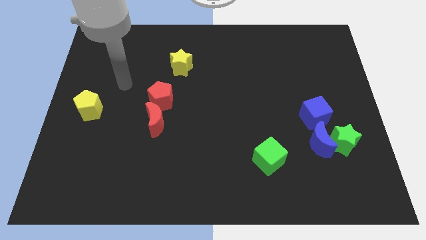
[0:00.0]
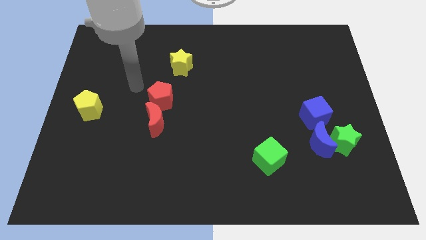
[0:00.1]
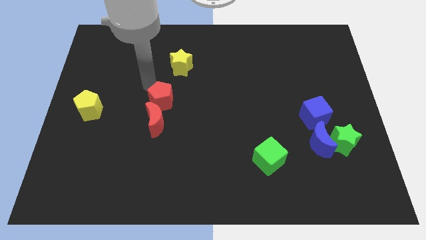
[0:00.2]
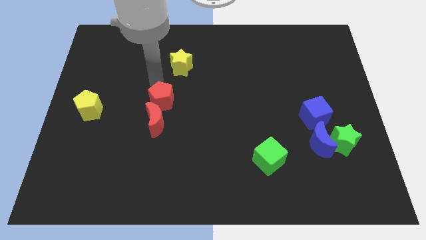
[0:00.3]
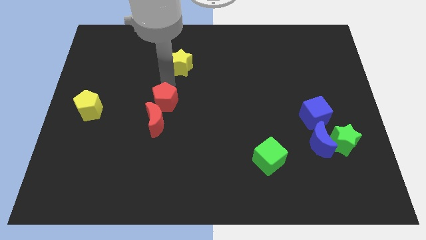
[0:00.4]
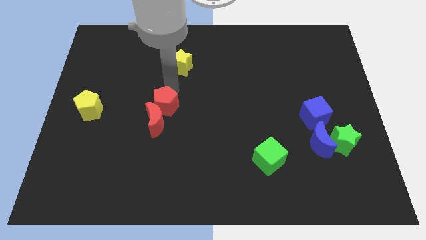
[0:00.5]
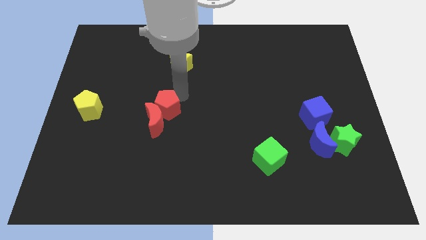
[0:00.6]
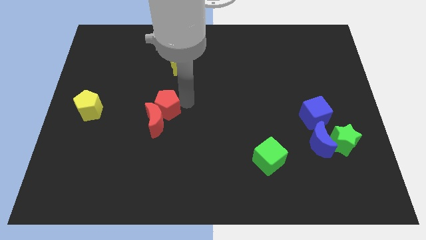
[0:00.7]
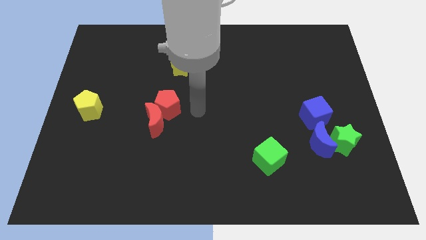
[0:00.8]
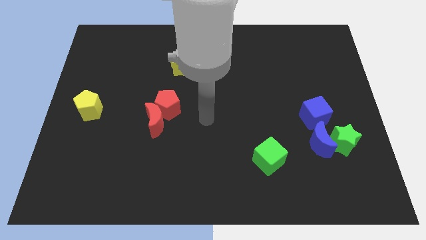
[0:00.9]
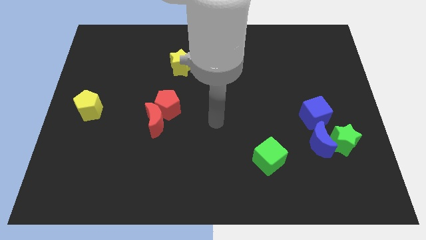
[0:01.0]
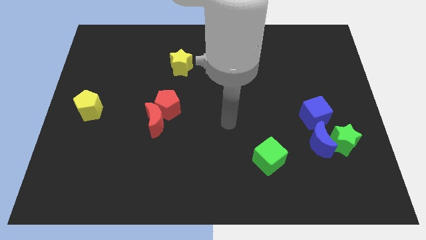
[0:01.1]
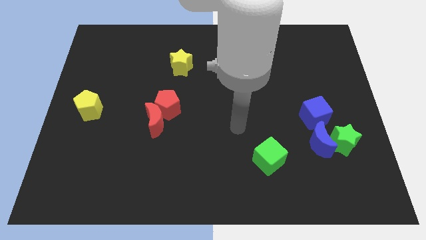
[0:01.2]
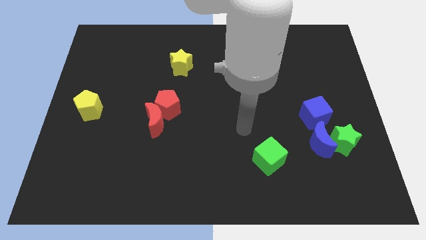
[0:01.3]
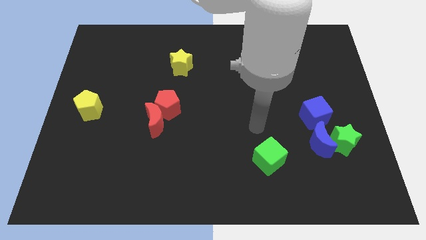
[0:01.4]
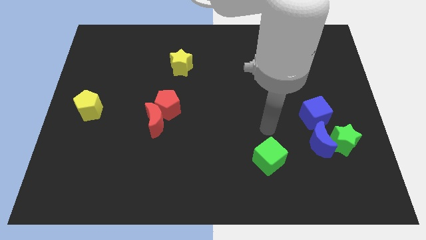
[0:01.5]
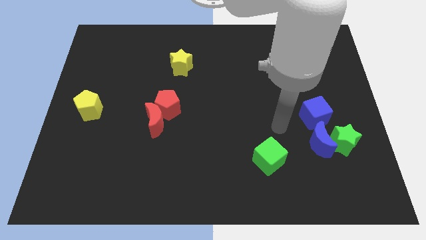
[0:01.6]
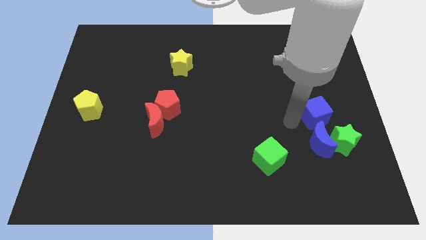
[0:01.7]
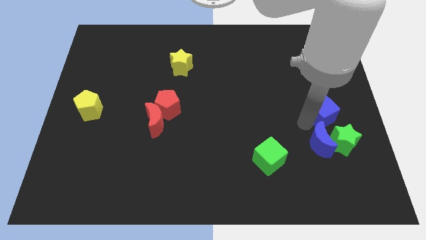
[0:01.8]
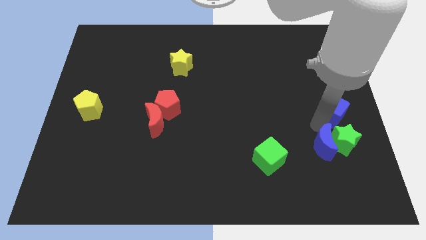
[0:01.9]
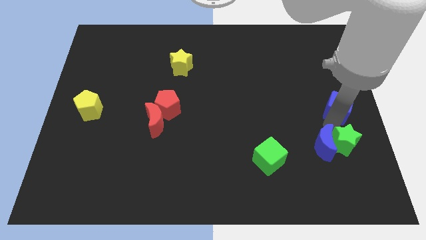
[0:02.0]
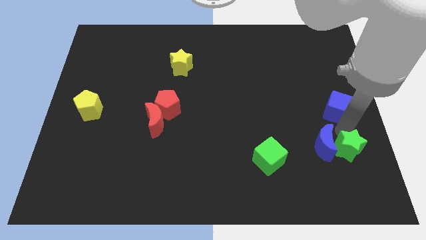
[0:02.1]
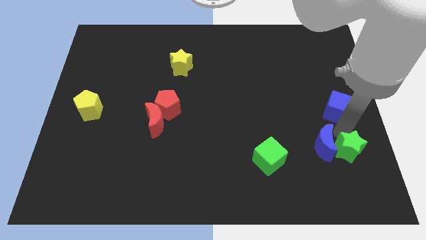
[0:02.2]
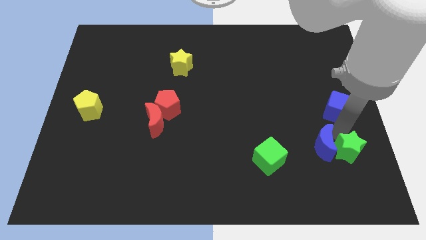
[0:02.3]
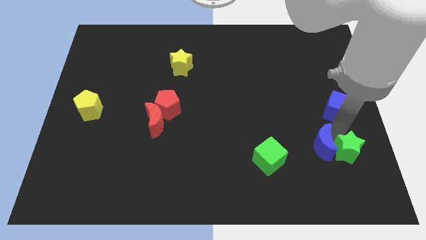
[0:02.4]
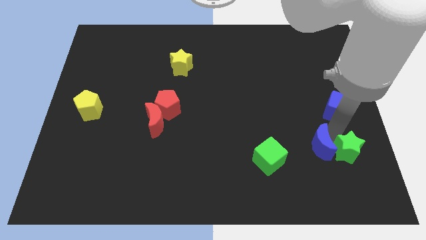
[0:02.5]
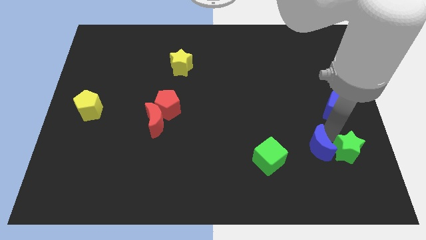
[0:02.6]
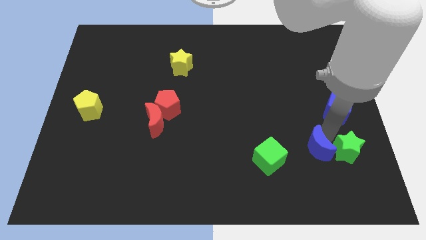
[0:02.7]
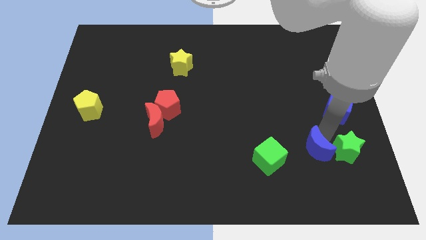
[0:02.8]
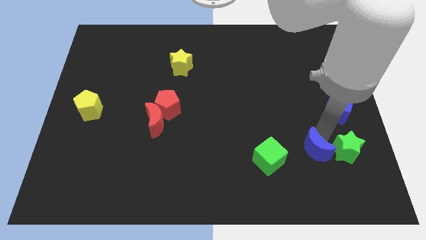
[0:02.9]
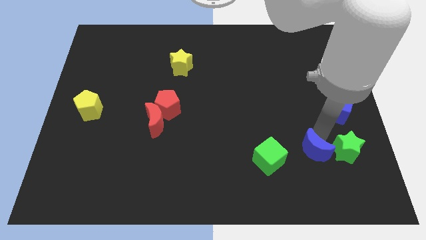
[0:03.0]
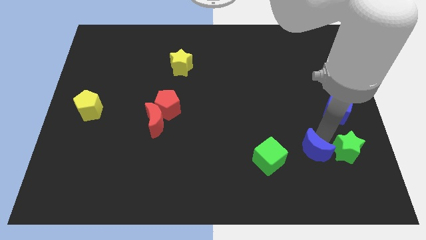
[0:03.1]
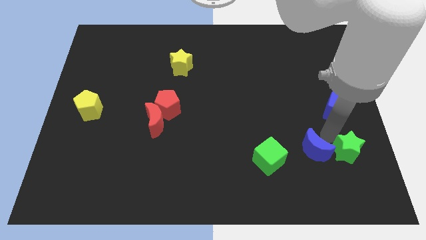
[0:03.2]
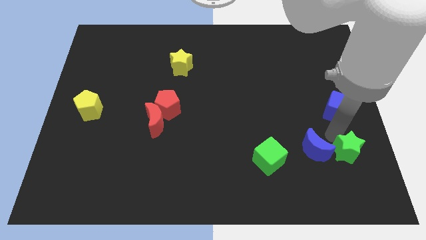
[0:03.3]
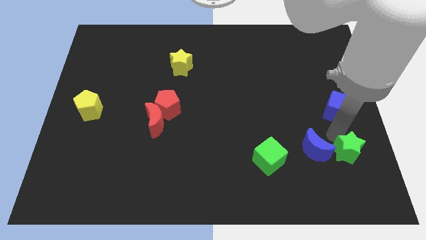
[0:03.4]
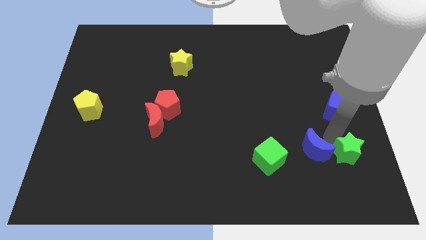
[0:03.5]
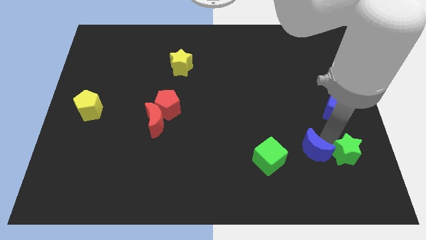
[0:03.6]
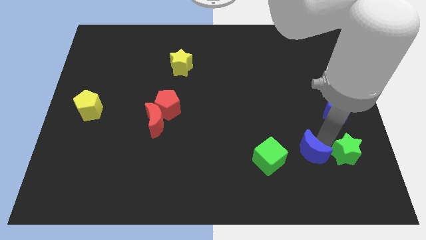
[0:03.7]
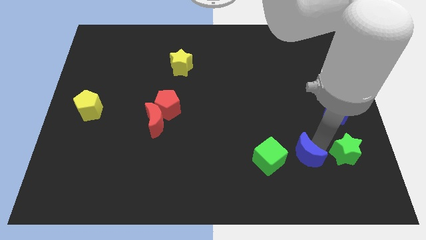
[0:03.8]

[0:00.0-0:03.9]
move the blue moon away from the green star and blue cube

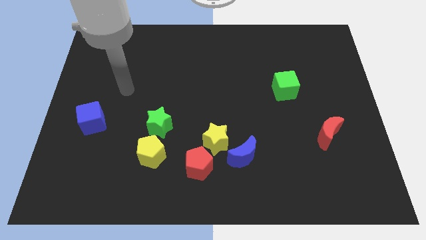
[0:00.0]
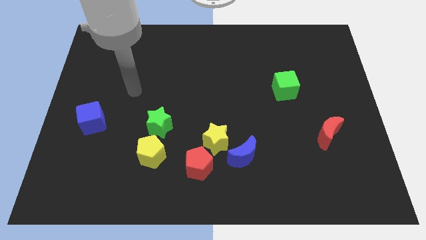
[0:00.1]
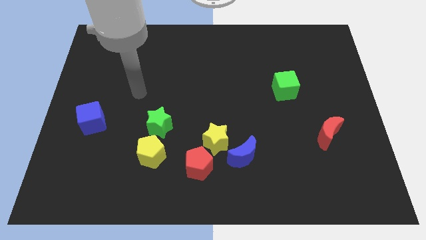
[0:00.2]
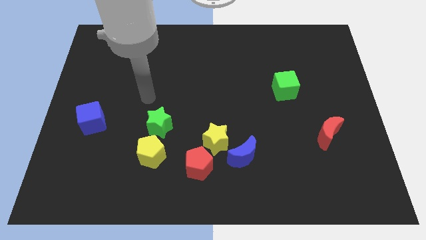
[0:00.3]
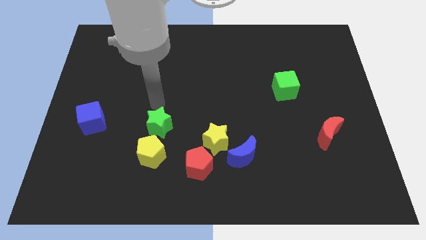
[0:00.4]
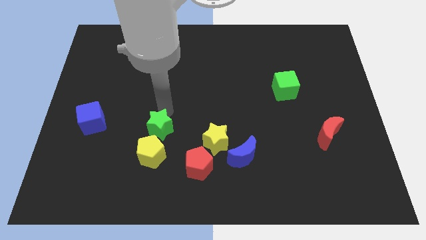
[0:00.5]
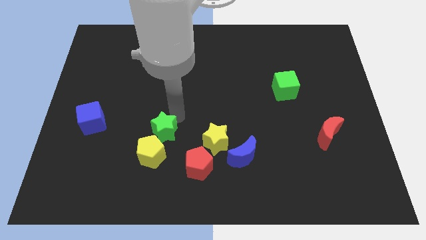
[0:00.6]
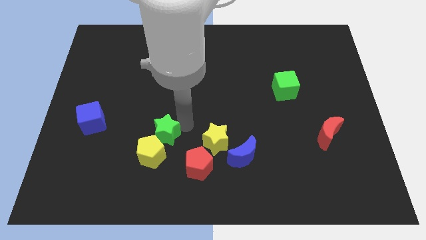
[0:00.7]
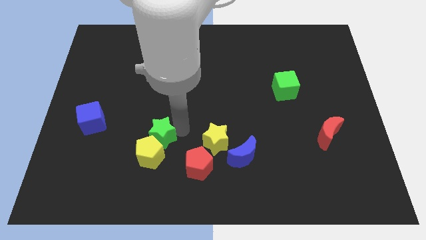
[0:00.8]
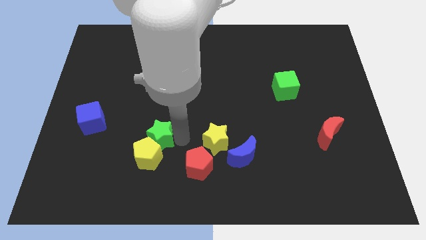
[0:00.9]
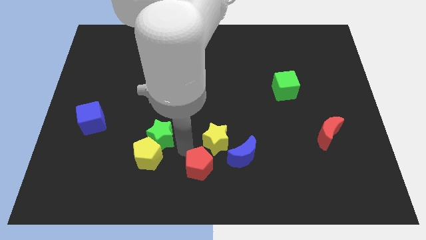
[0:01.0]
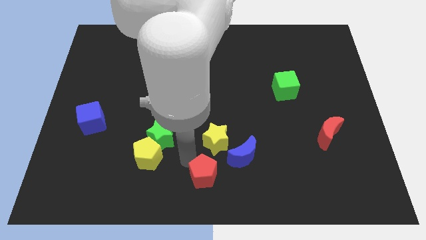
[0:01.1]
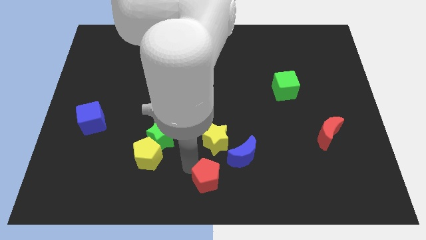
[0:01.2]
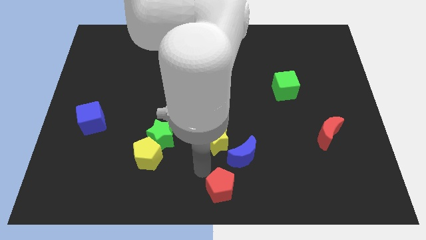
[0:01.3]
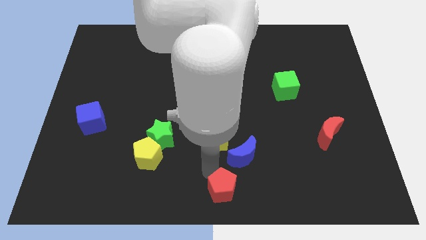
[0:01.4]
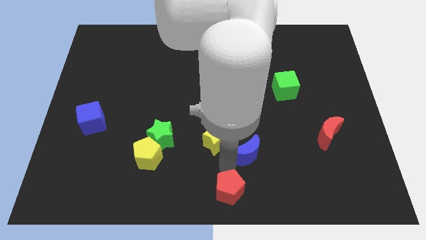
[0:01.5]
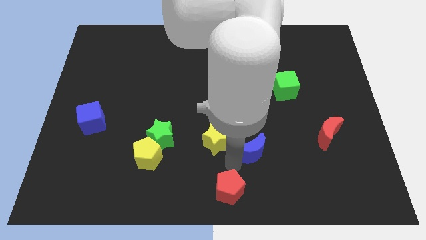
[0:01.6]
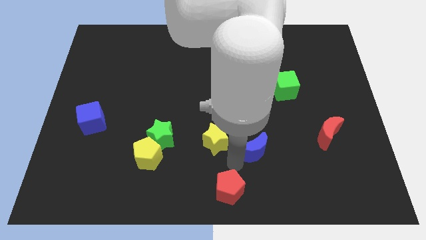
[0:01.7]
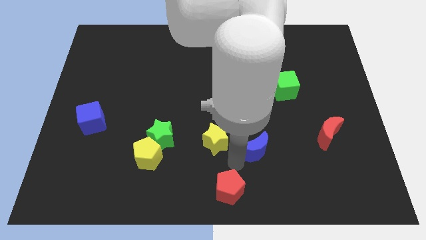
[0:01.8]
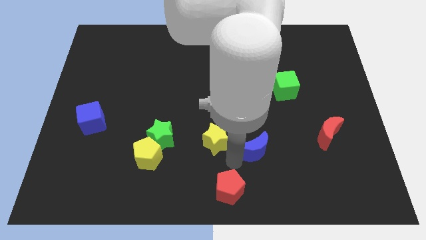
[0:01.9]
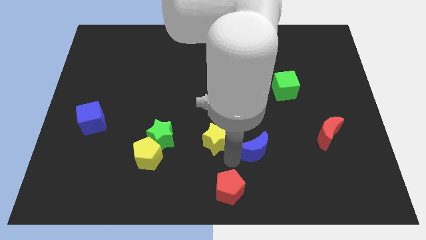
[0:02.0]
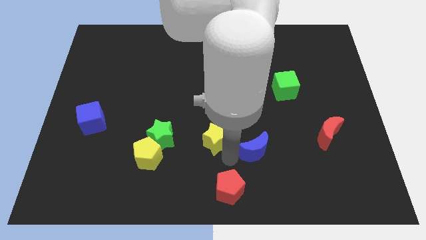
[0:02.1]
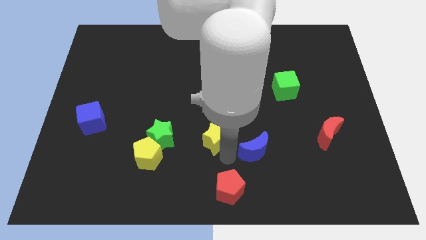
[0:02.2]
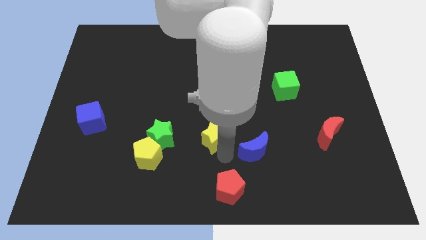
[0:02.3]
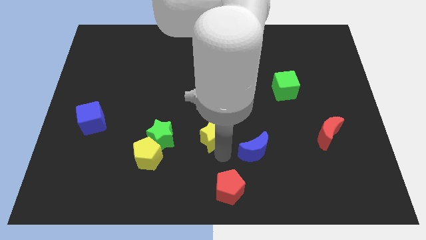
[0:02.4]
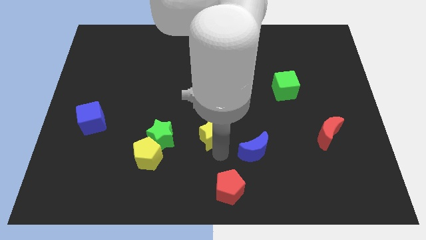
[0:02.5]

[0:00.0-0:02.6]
separate the yellow star from the blue moon and red pentagon

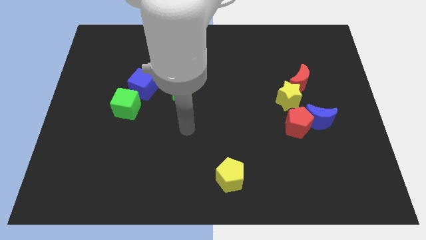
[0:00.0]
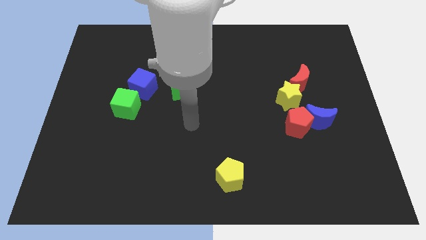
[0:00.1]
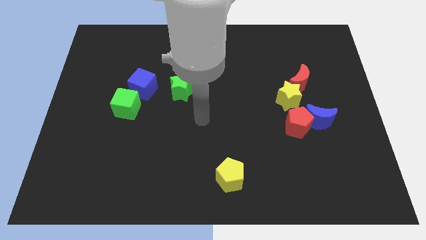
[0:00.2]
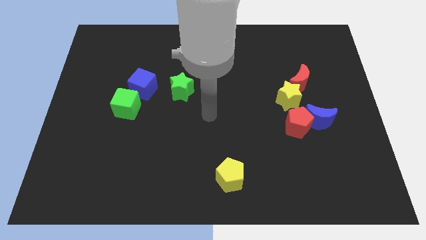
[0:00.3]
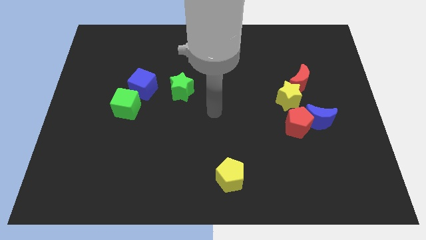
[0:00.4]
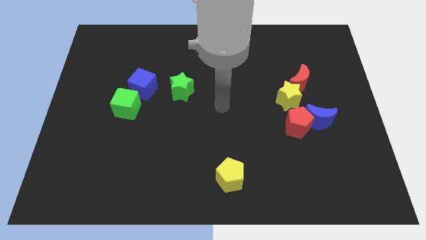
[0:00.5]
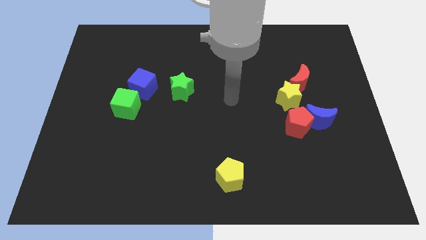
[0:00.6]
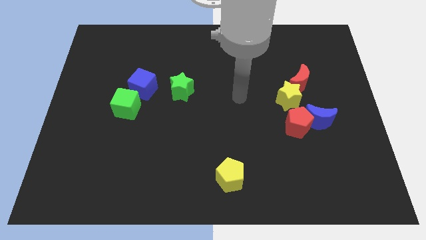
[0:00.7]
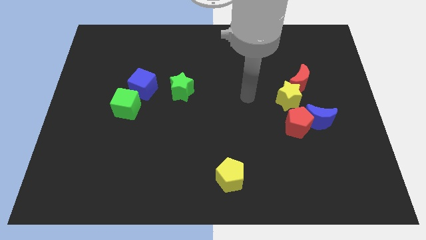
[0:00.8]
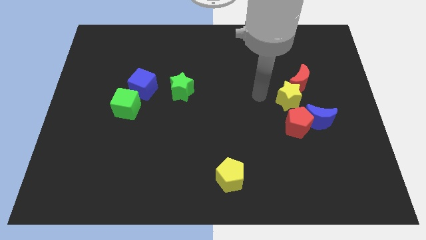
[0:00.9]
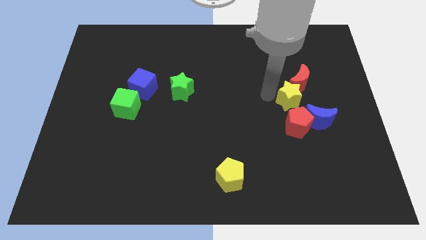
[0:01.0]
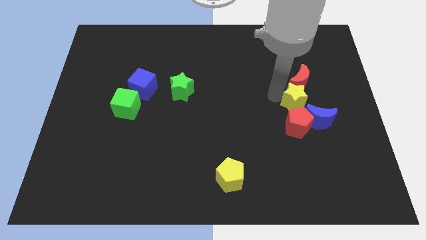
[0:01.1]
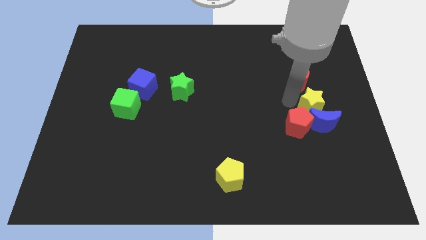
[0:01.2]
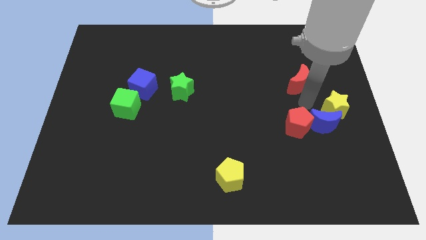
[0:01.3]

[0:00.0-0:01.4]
separate the red moon from the yellow star

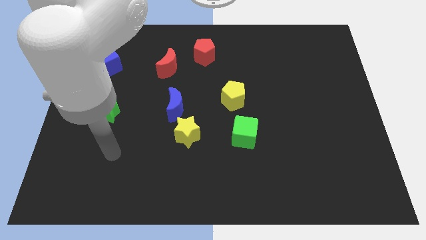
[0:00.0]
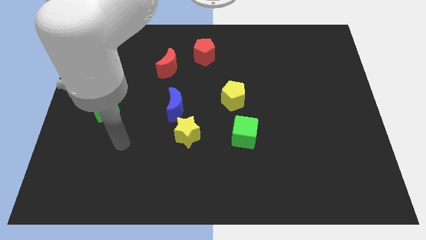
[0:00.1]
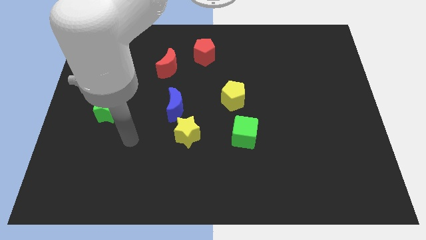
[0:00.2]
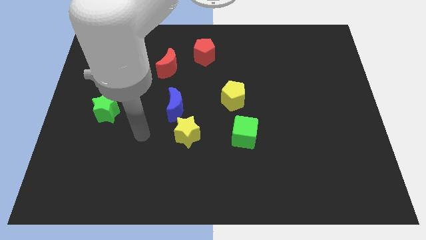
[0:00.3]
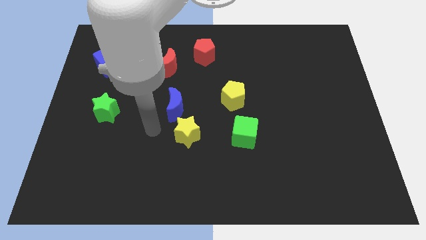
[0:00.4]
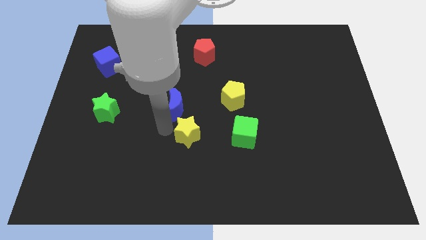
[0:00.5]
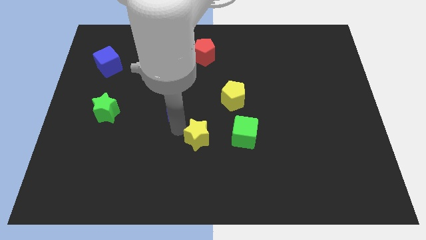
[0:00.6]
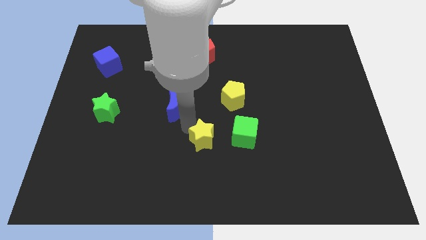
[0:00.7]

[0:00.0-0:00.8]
pull the blue moon apart from the yellow star

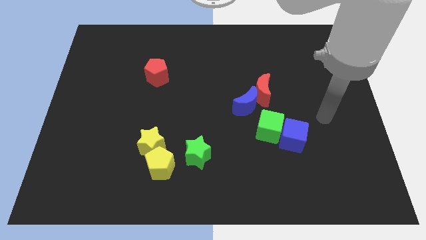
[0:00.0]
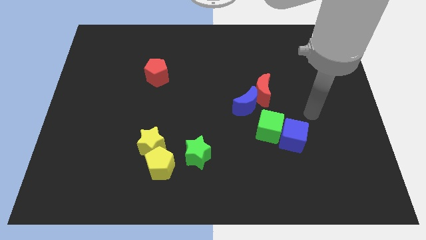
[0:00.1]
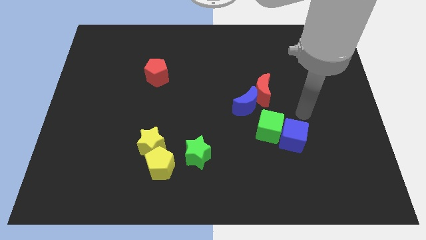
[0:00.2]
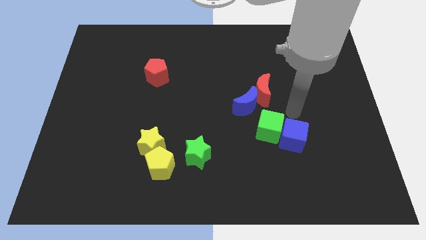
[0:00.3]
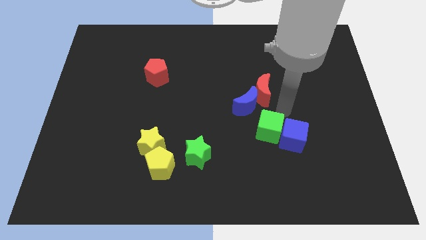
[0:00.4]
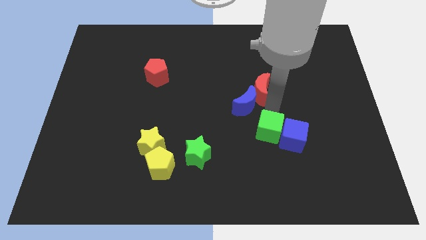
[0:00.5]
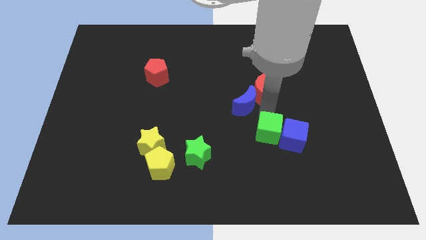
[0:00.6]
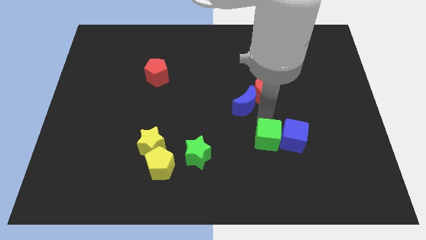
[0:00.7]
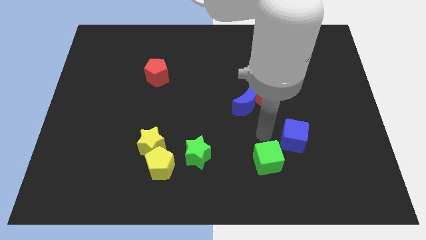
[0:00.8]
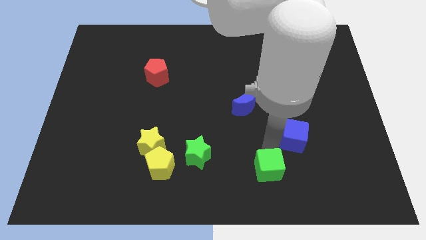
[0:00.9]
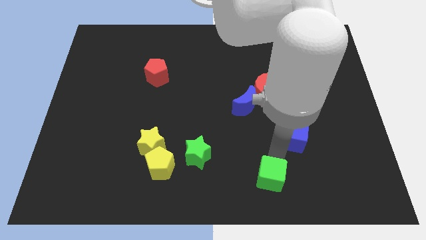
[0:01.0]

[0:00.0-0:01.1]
separate the blue cube from the green cube
